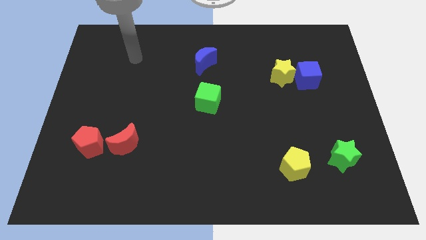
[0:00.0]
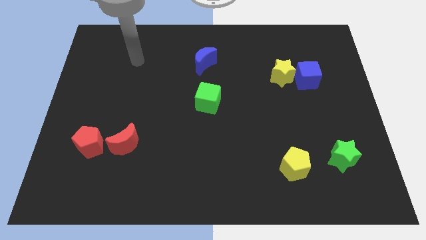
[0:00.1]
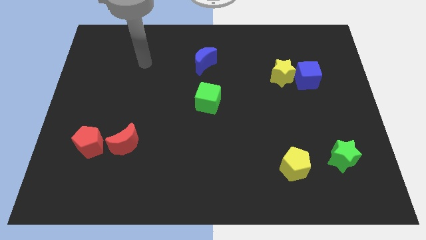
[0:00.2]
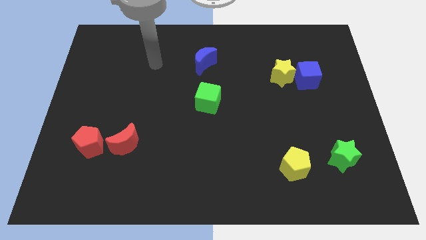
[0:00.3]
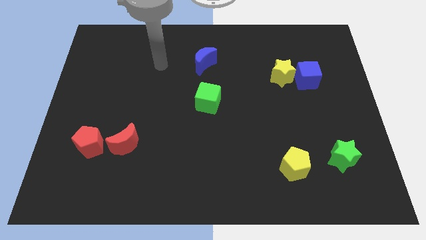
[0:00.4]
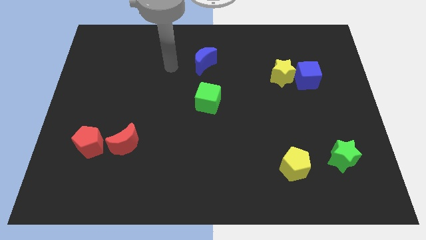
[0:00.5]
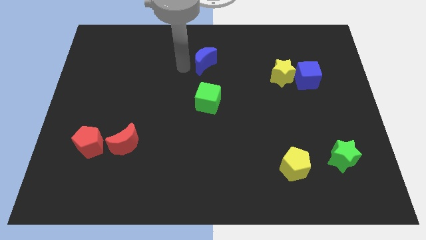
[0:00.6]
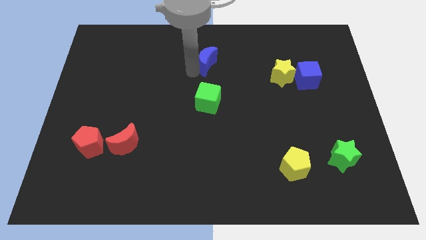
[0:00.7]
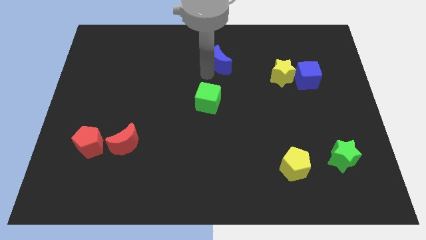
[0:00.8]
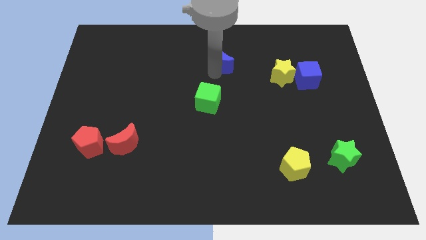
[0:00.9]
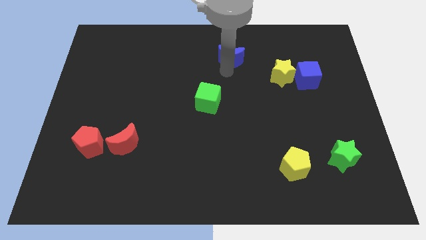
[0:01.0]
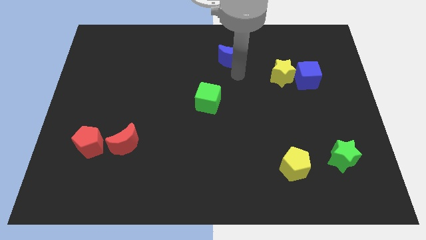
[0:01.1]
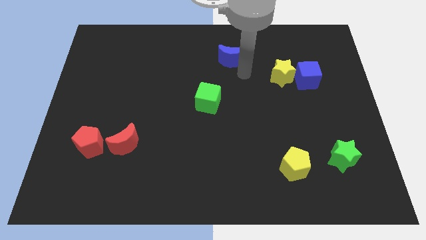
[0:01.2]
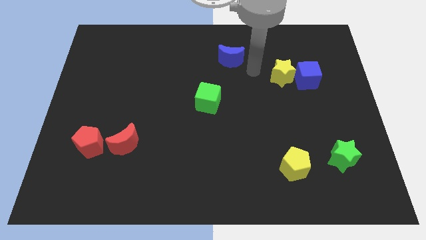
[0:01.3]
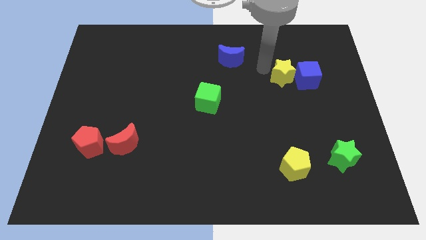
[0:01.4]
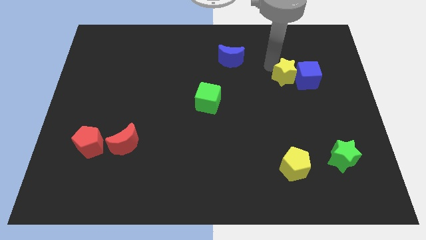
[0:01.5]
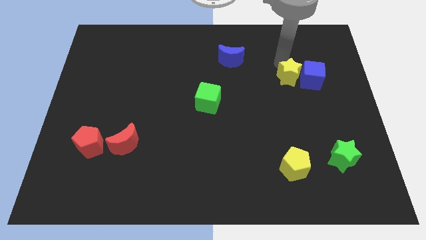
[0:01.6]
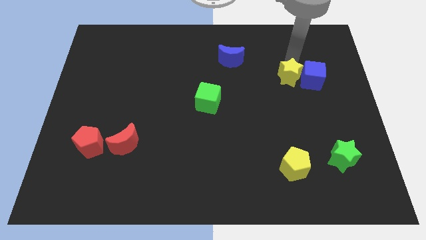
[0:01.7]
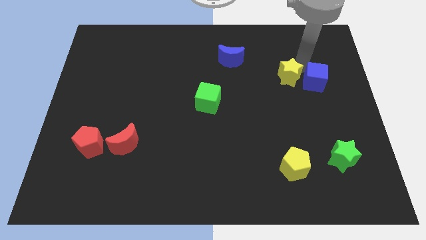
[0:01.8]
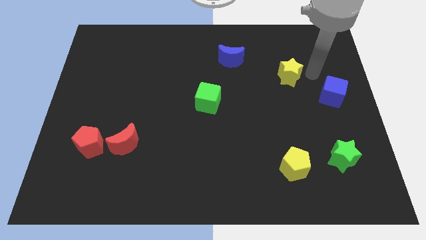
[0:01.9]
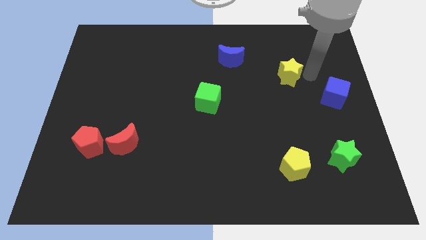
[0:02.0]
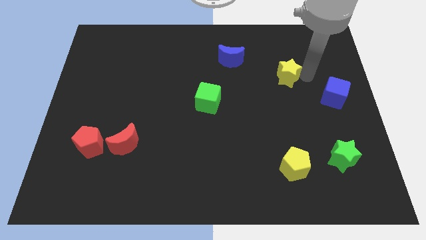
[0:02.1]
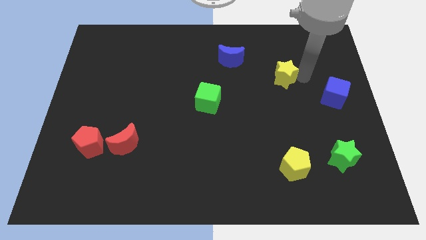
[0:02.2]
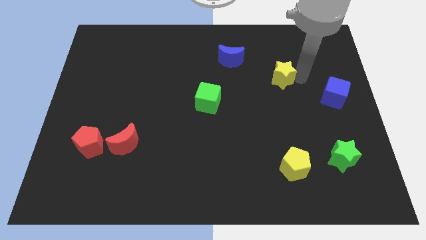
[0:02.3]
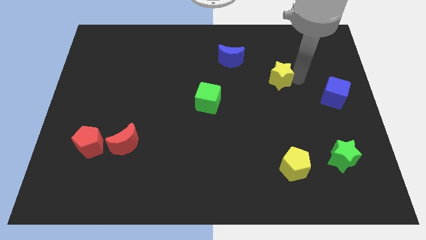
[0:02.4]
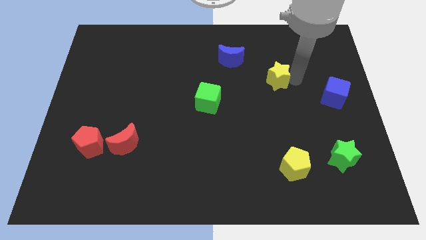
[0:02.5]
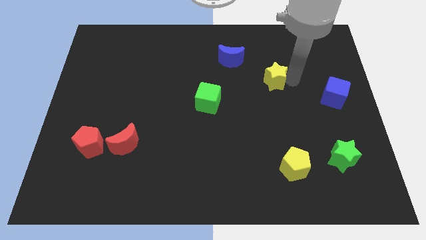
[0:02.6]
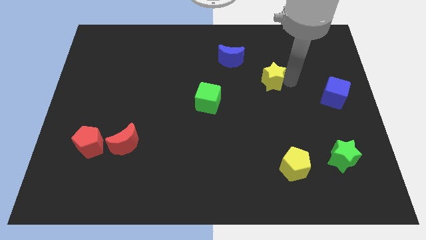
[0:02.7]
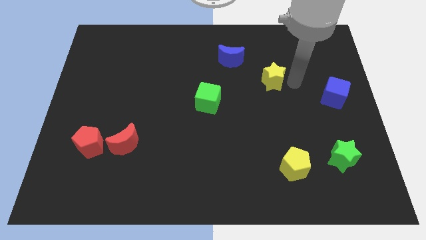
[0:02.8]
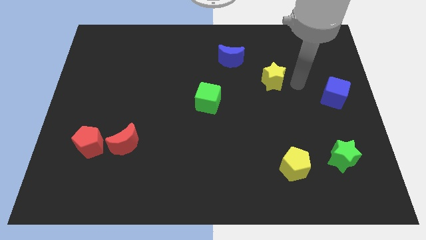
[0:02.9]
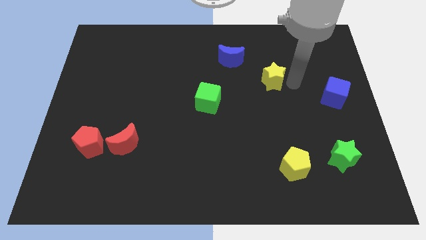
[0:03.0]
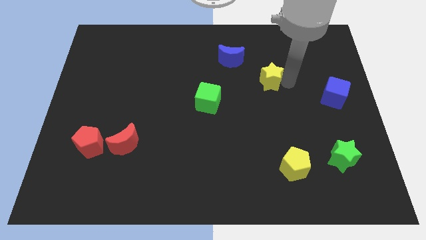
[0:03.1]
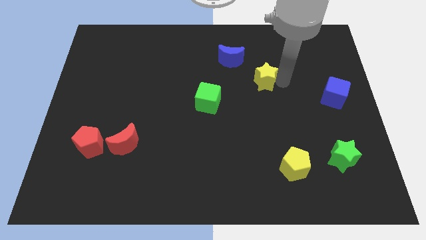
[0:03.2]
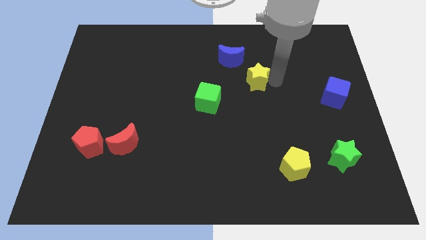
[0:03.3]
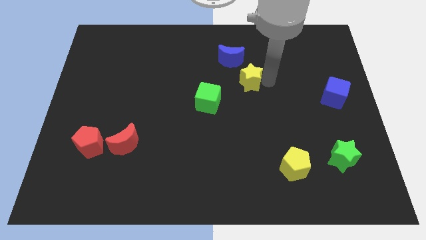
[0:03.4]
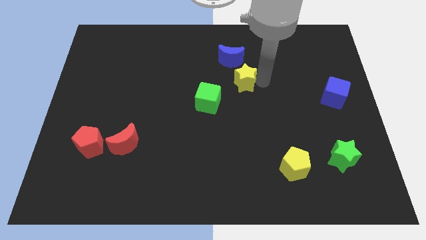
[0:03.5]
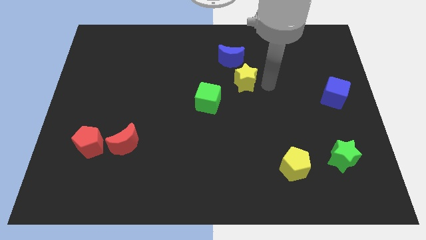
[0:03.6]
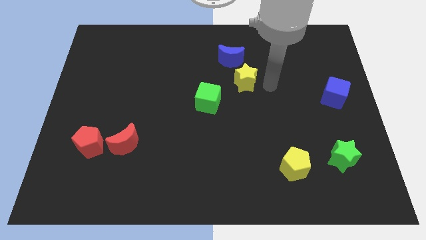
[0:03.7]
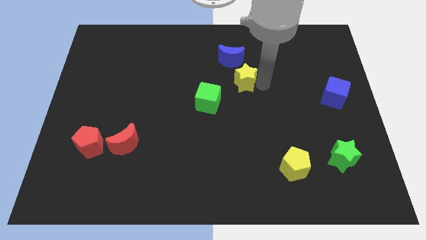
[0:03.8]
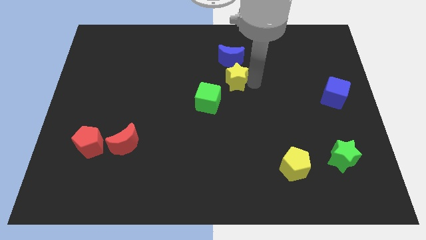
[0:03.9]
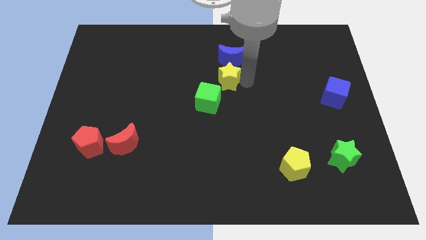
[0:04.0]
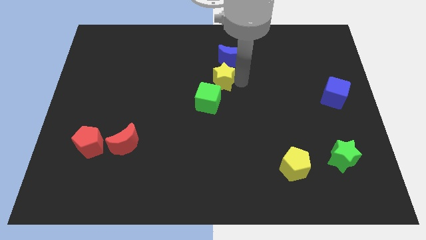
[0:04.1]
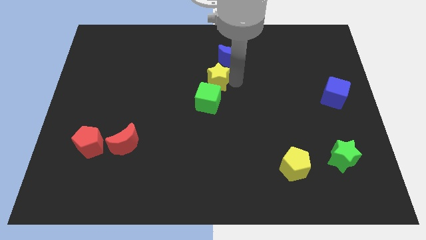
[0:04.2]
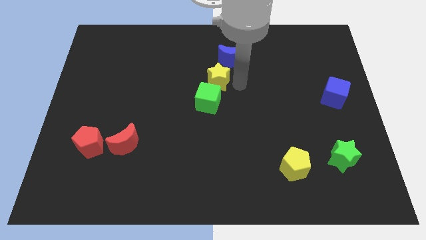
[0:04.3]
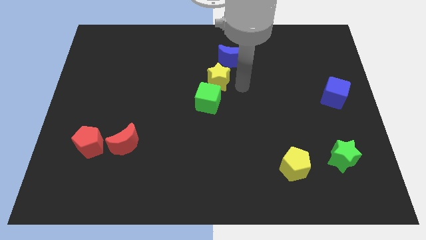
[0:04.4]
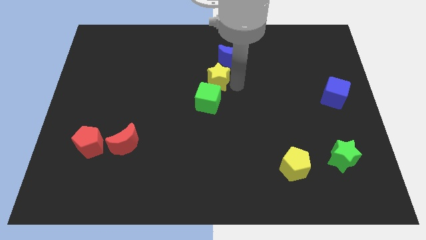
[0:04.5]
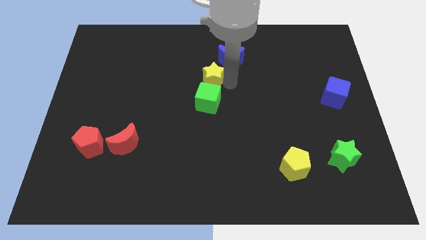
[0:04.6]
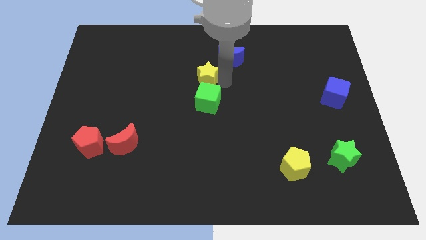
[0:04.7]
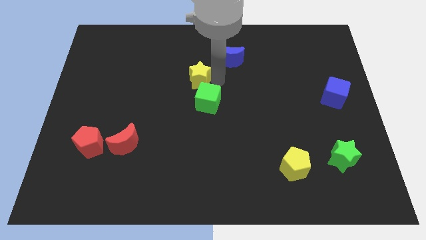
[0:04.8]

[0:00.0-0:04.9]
push the yellow star left

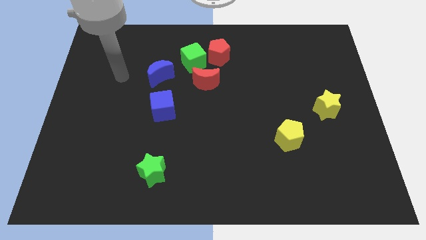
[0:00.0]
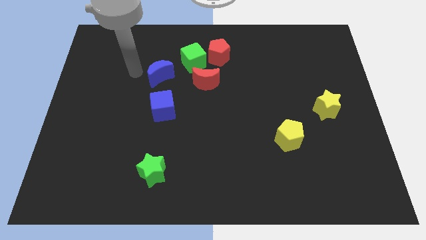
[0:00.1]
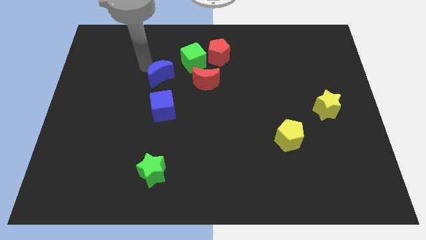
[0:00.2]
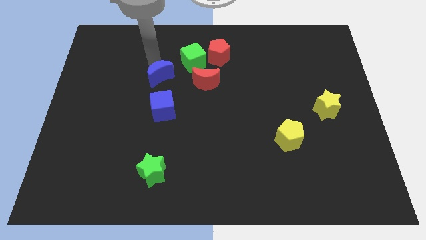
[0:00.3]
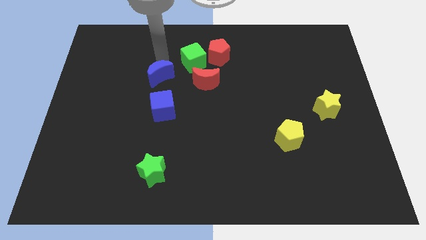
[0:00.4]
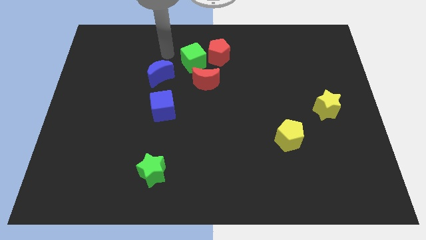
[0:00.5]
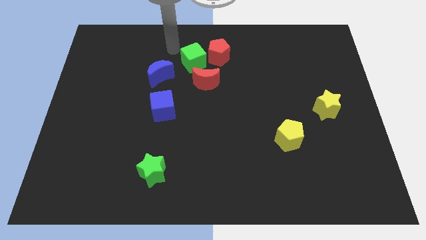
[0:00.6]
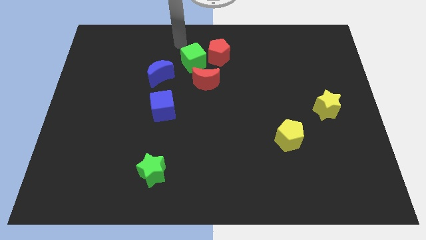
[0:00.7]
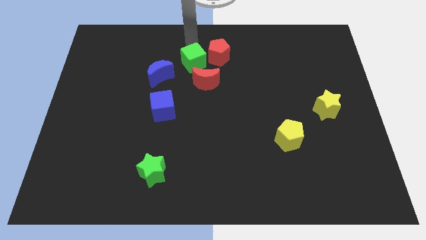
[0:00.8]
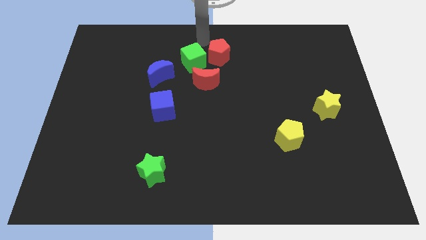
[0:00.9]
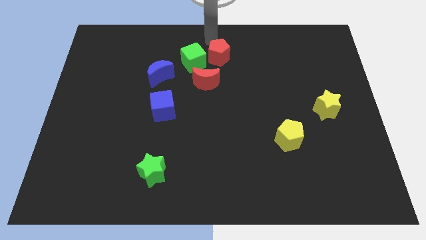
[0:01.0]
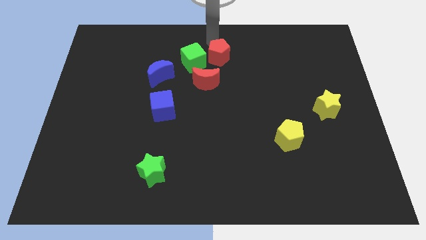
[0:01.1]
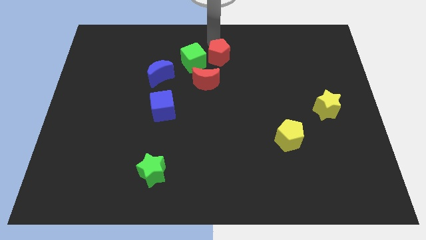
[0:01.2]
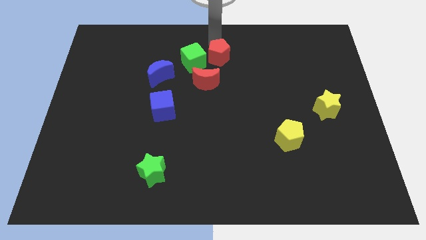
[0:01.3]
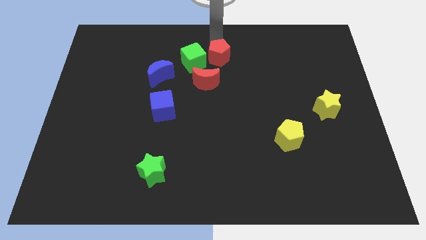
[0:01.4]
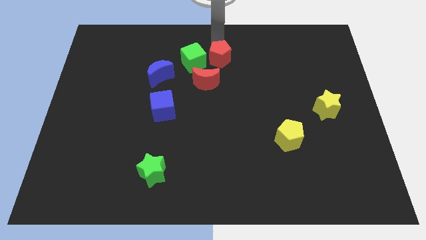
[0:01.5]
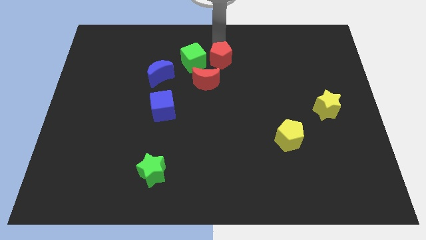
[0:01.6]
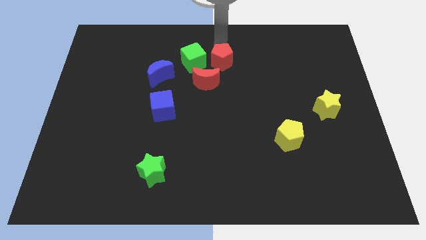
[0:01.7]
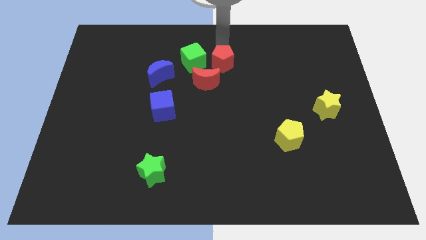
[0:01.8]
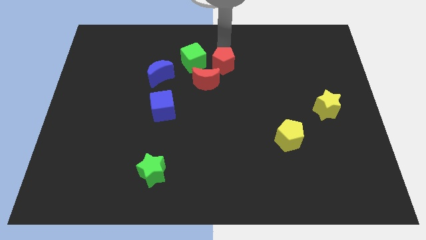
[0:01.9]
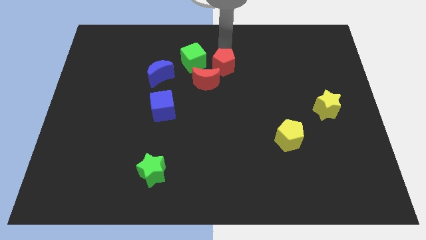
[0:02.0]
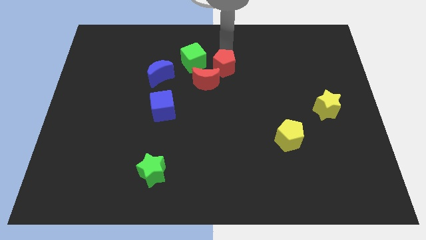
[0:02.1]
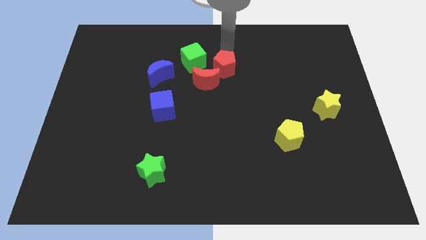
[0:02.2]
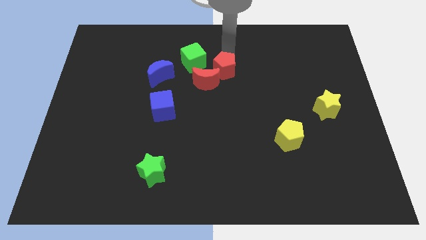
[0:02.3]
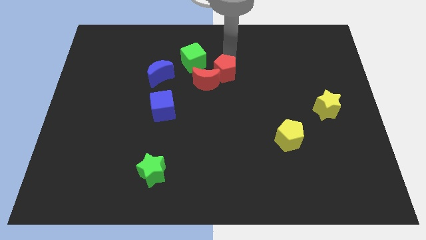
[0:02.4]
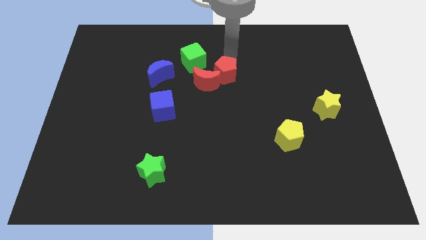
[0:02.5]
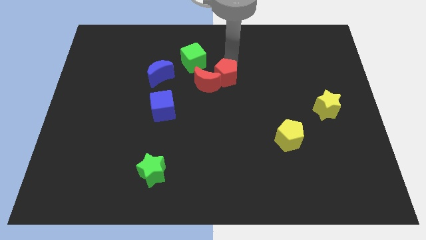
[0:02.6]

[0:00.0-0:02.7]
move the red pentagon down slightly

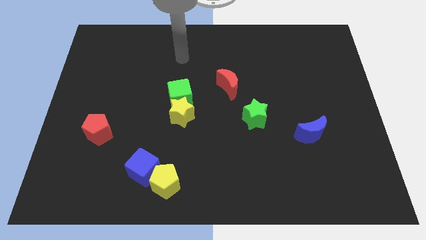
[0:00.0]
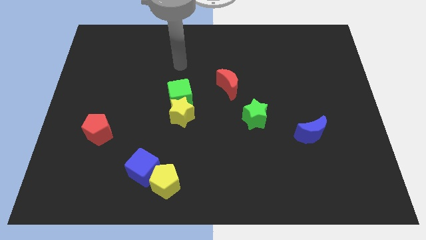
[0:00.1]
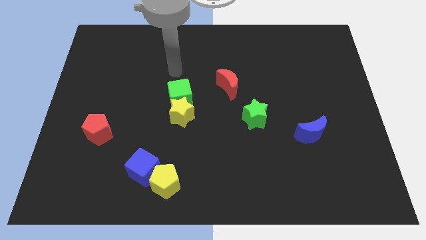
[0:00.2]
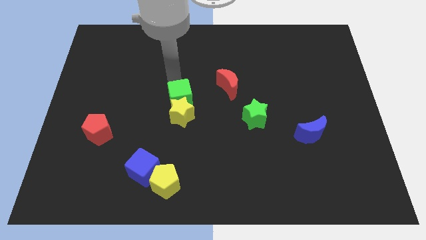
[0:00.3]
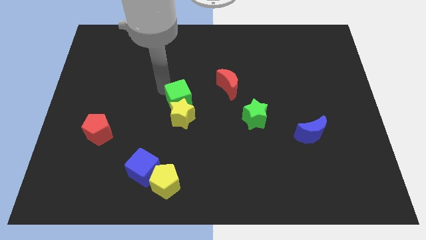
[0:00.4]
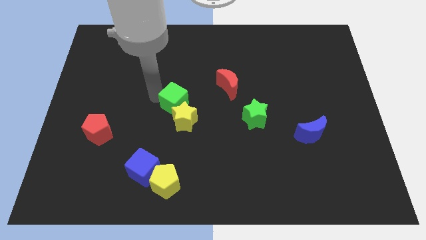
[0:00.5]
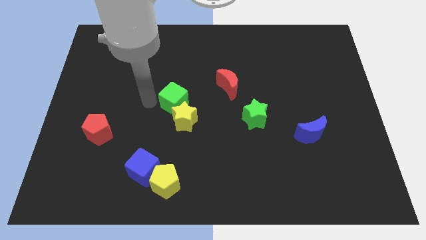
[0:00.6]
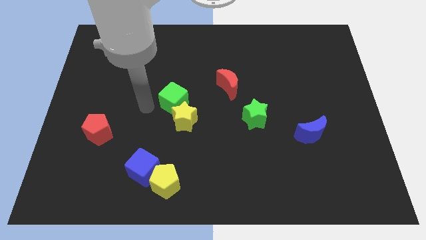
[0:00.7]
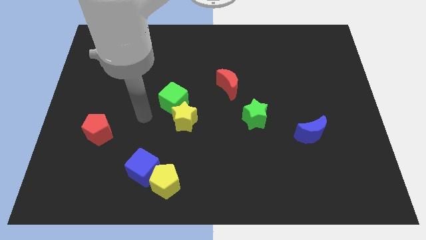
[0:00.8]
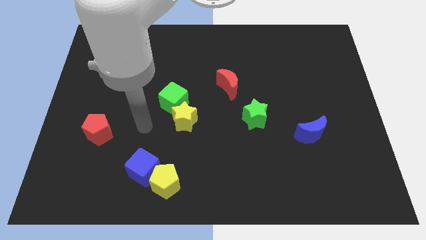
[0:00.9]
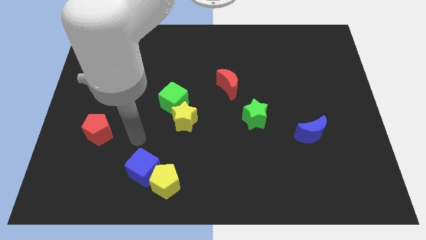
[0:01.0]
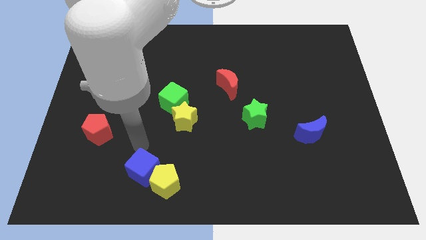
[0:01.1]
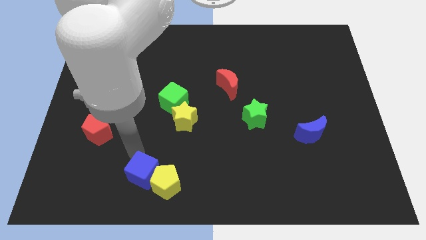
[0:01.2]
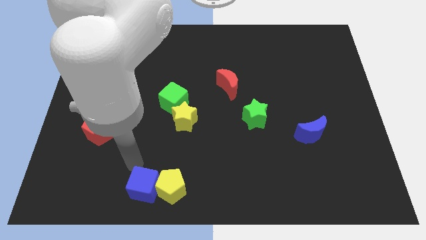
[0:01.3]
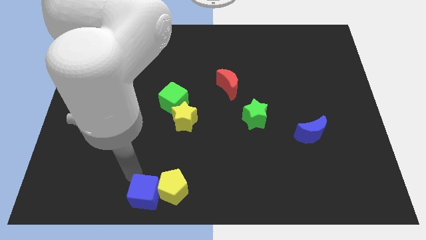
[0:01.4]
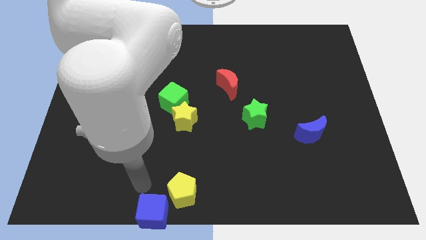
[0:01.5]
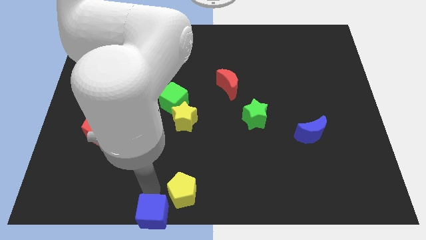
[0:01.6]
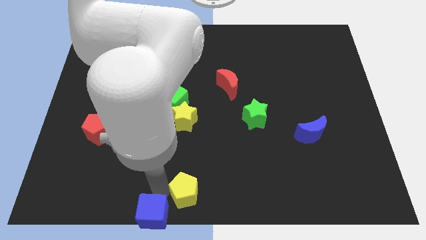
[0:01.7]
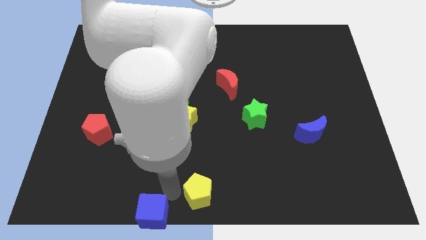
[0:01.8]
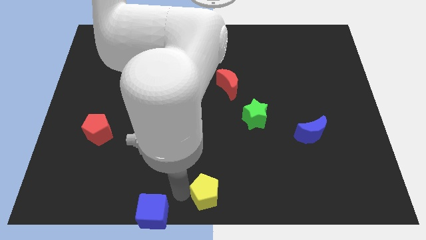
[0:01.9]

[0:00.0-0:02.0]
slightly slide the yellow pentagon right
